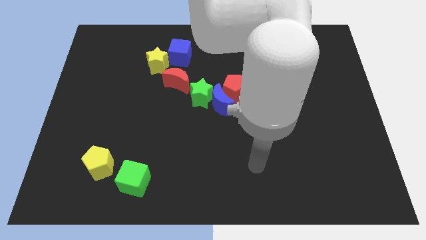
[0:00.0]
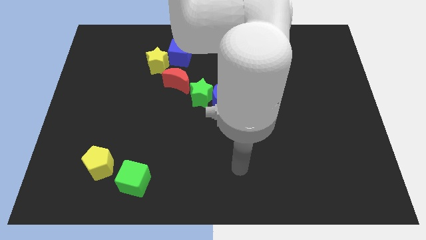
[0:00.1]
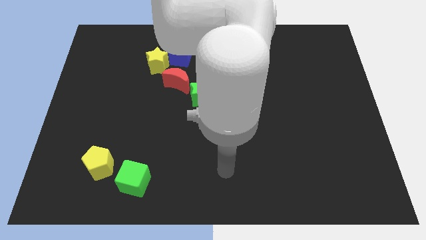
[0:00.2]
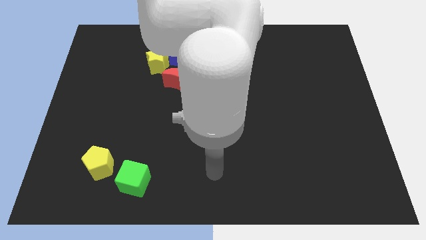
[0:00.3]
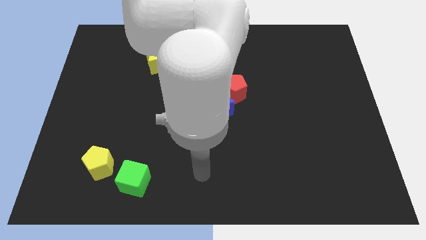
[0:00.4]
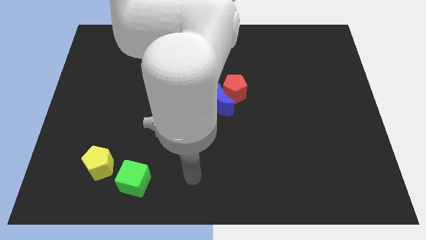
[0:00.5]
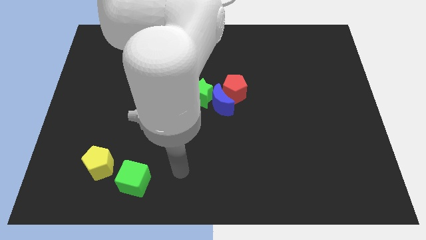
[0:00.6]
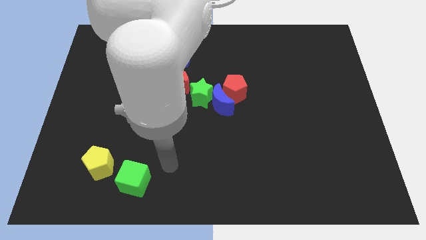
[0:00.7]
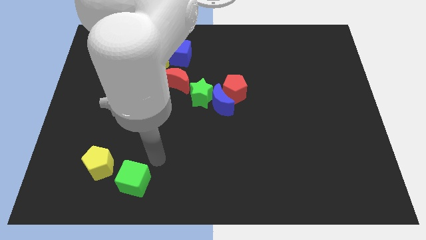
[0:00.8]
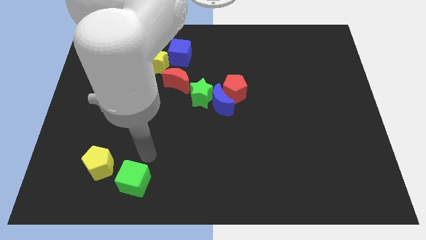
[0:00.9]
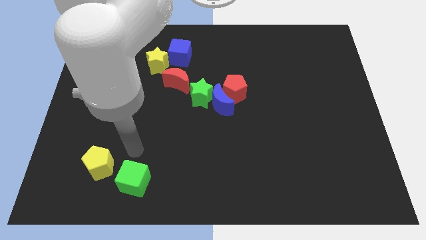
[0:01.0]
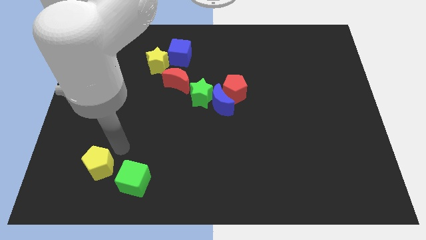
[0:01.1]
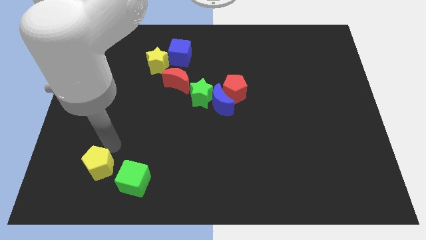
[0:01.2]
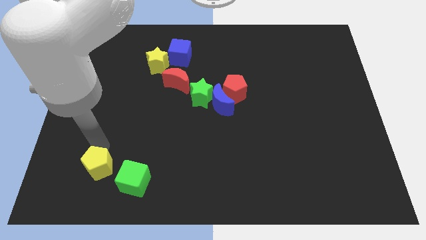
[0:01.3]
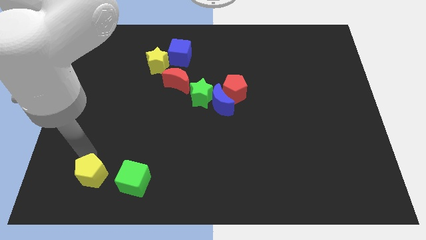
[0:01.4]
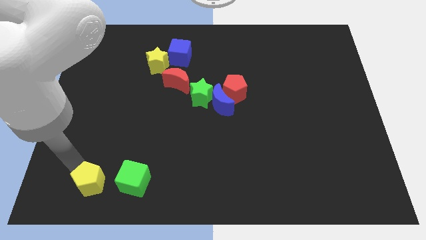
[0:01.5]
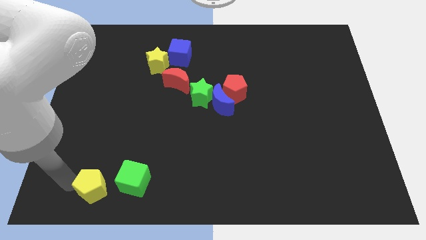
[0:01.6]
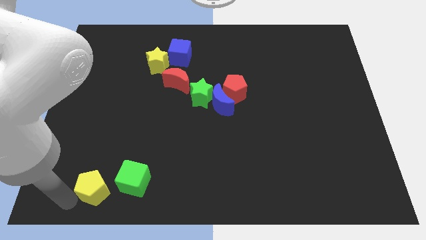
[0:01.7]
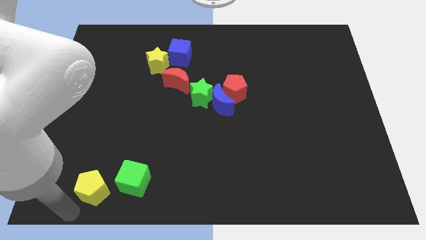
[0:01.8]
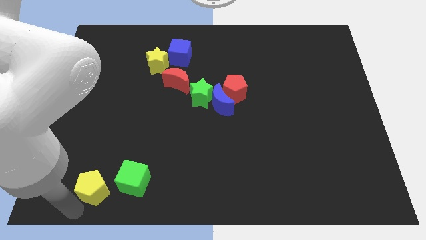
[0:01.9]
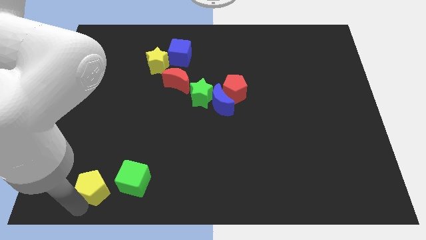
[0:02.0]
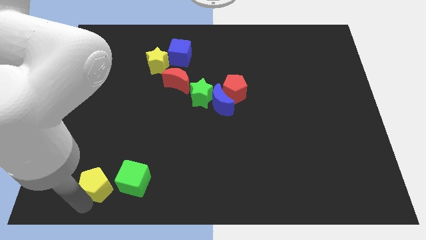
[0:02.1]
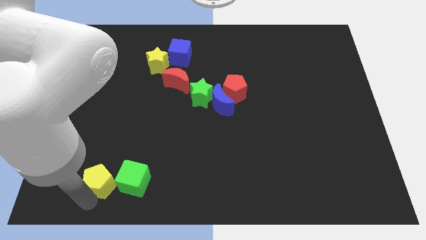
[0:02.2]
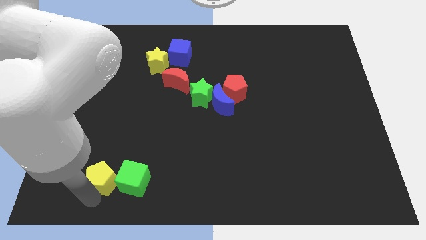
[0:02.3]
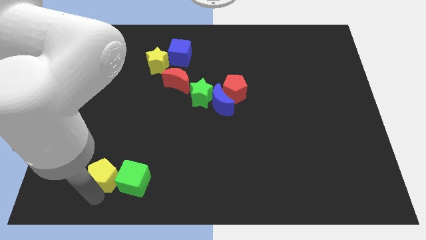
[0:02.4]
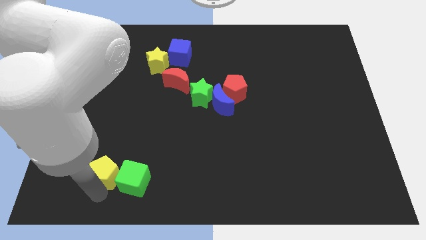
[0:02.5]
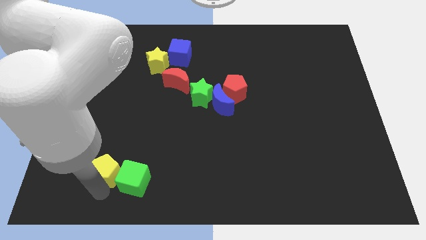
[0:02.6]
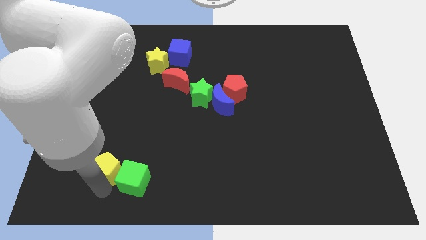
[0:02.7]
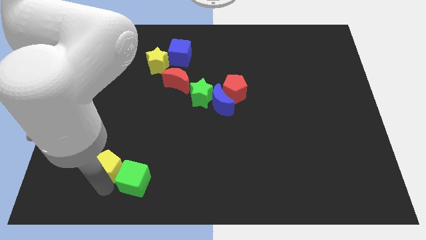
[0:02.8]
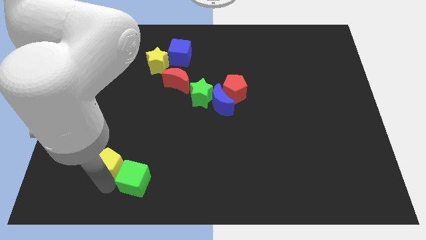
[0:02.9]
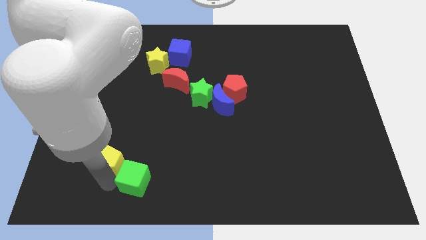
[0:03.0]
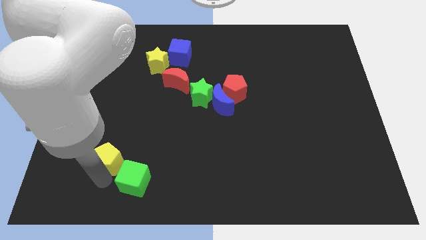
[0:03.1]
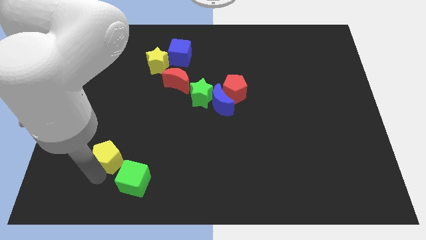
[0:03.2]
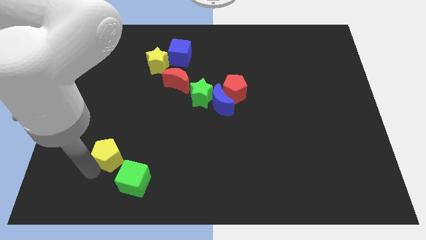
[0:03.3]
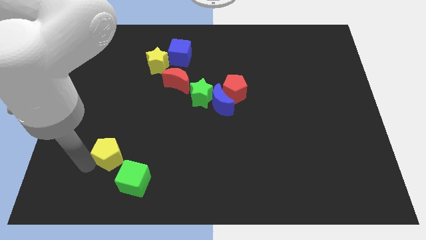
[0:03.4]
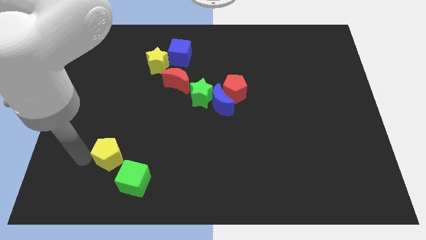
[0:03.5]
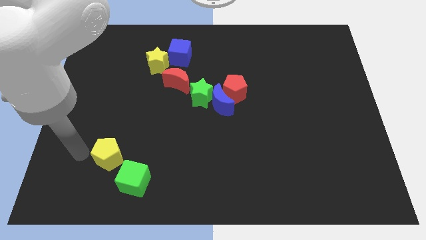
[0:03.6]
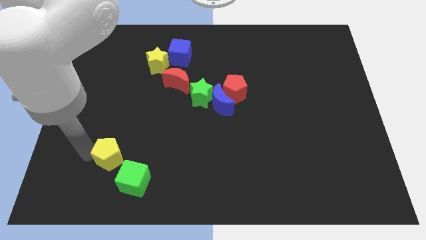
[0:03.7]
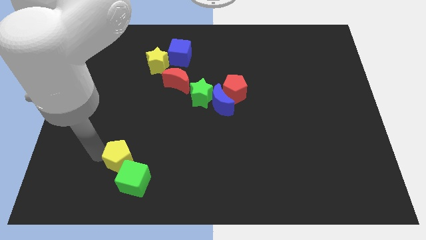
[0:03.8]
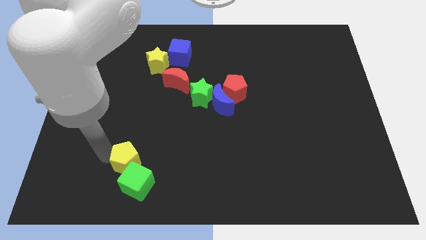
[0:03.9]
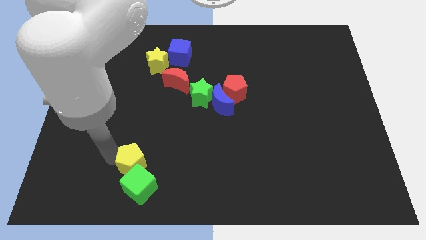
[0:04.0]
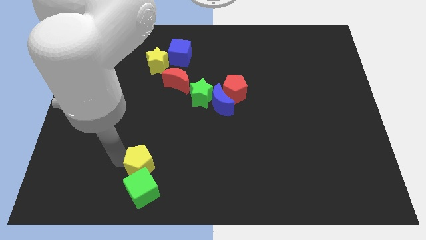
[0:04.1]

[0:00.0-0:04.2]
push the yellow pentagon right somewhat

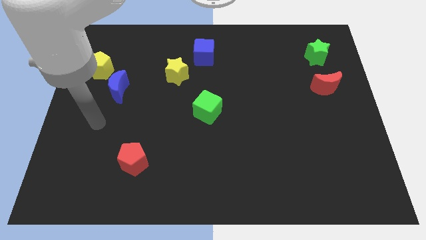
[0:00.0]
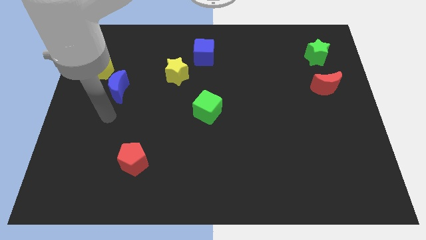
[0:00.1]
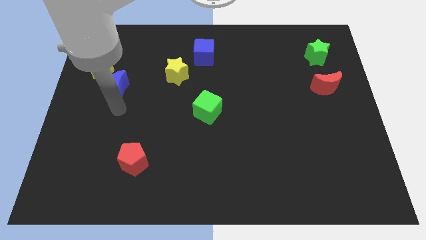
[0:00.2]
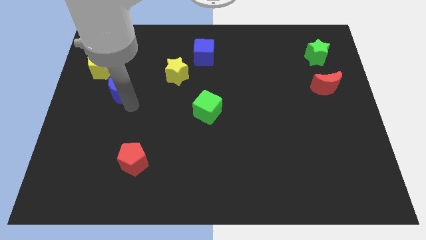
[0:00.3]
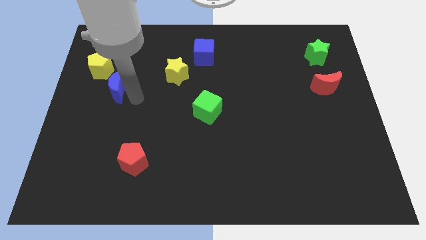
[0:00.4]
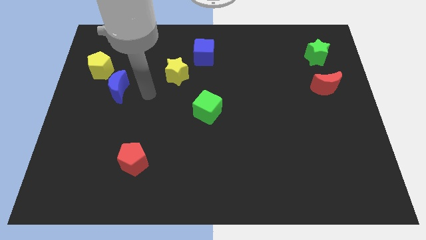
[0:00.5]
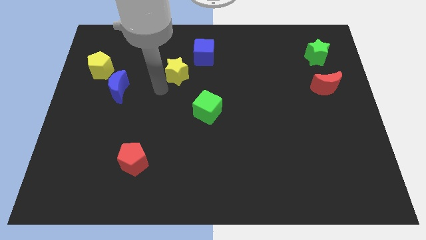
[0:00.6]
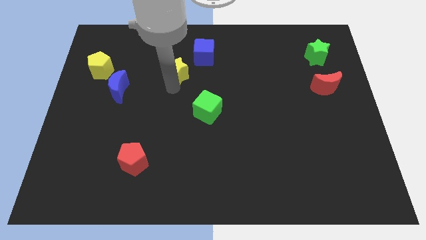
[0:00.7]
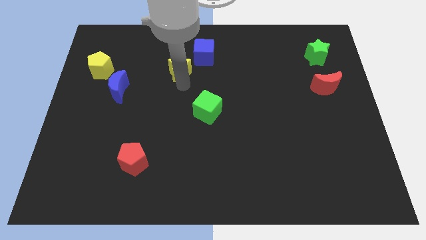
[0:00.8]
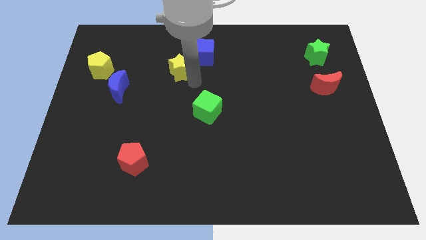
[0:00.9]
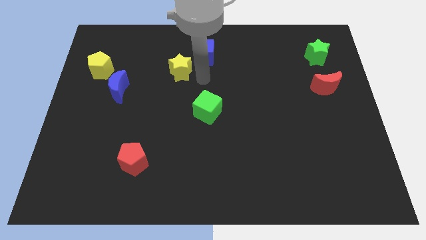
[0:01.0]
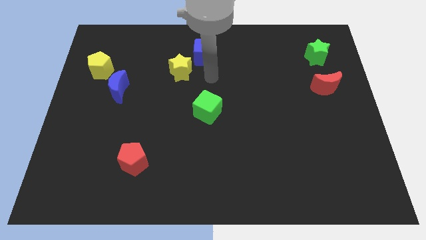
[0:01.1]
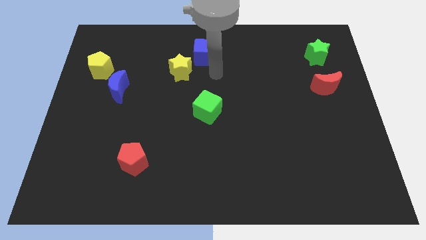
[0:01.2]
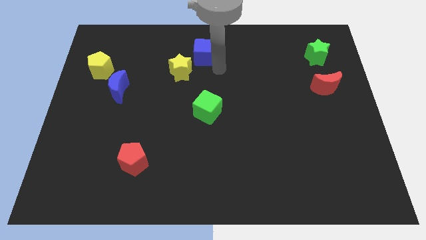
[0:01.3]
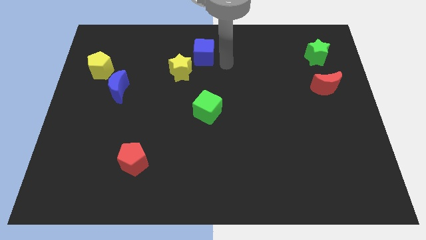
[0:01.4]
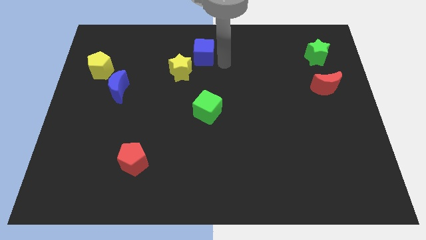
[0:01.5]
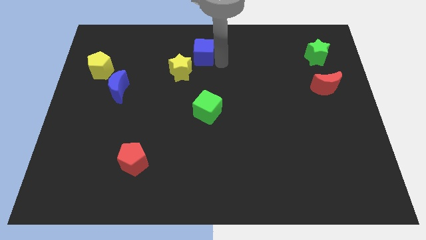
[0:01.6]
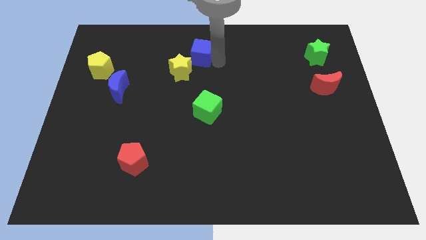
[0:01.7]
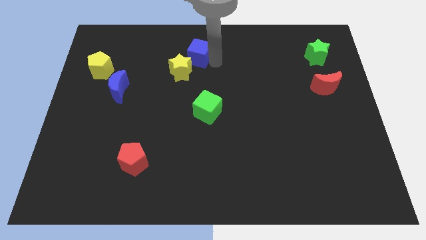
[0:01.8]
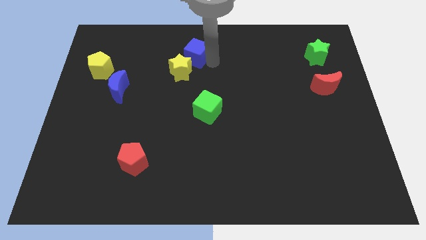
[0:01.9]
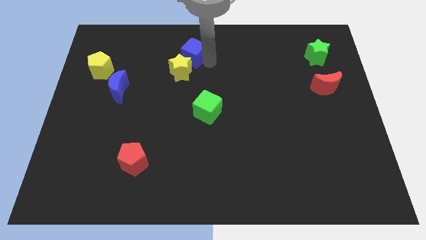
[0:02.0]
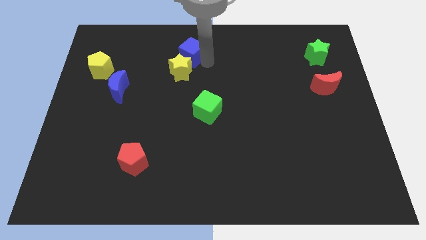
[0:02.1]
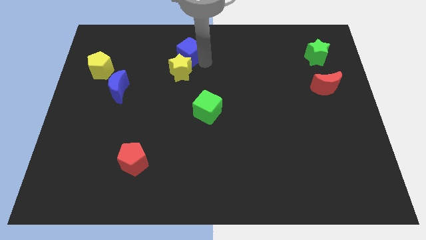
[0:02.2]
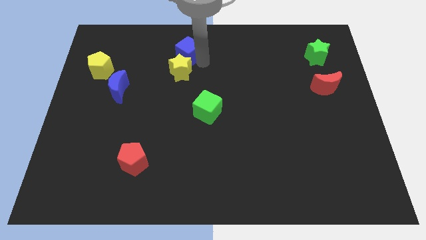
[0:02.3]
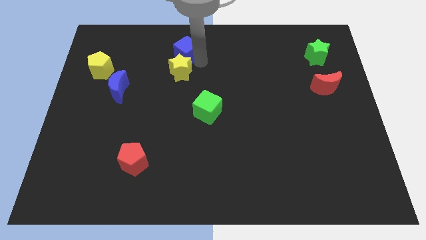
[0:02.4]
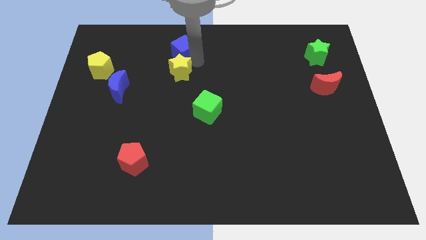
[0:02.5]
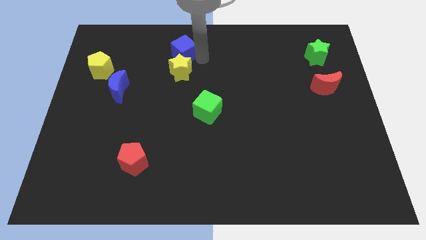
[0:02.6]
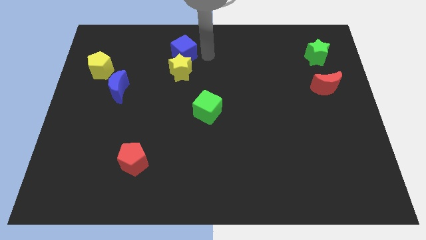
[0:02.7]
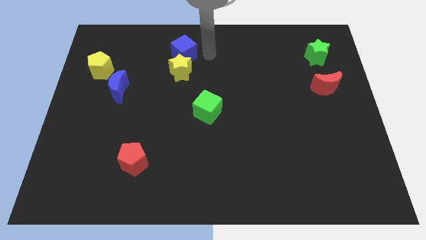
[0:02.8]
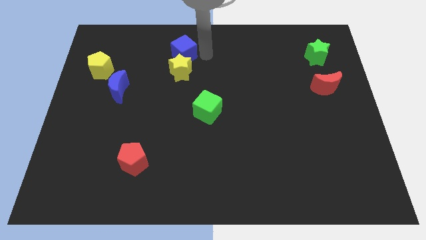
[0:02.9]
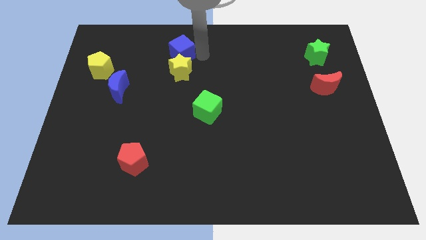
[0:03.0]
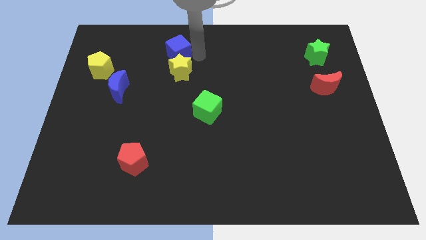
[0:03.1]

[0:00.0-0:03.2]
slightly slide the blue cube left

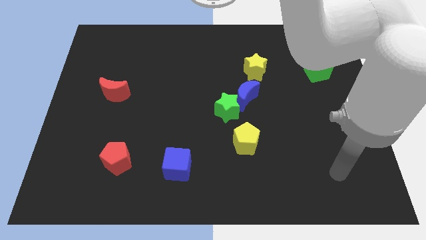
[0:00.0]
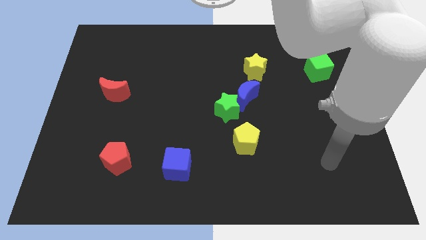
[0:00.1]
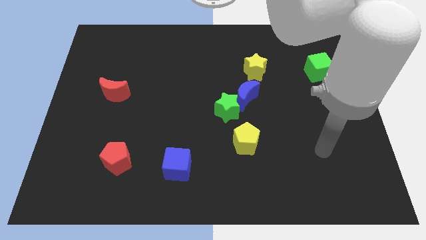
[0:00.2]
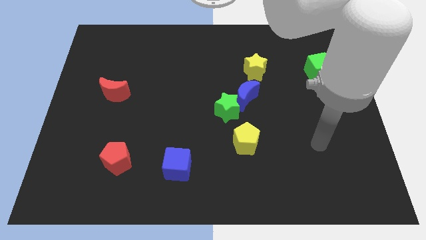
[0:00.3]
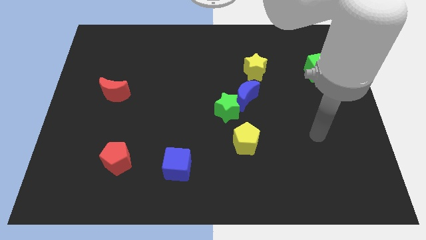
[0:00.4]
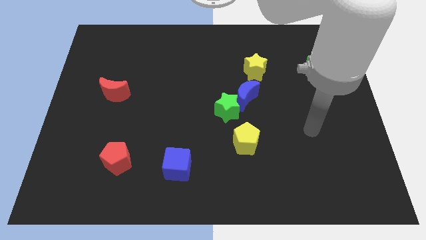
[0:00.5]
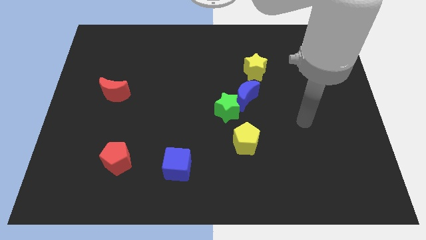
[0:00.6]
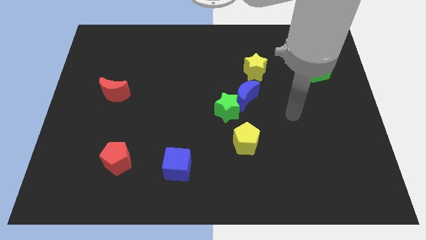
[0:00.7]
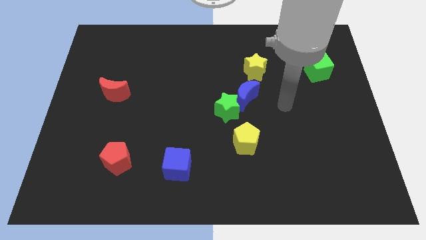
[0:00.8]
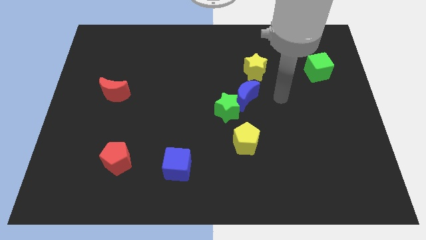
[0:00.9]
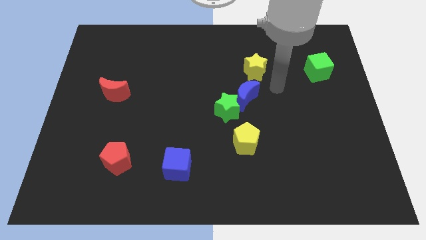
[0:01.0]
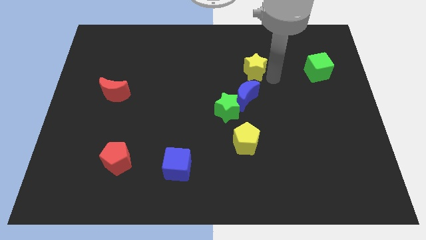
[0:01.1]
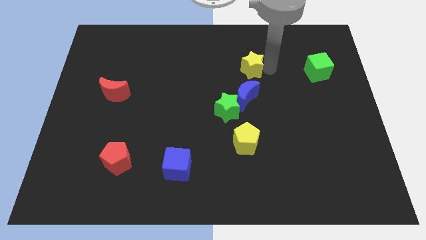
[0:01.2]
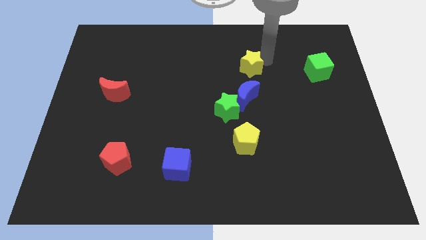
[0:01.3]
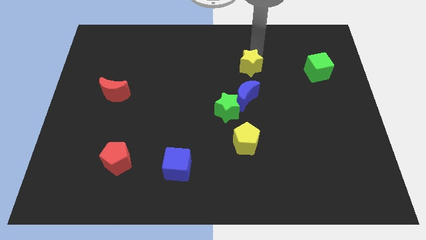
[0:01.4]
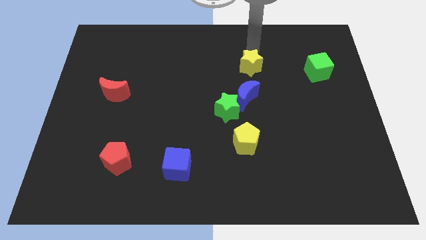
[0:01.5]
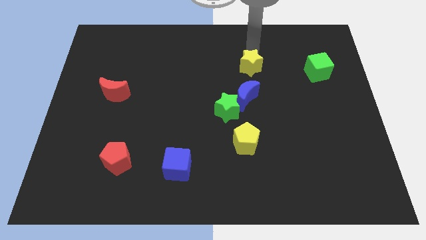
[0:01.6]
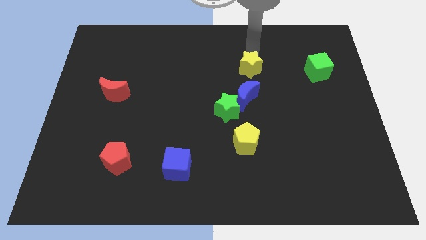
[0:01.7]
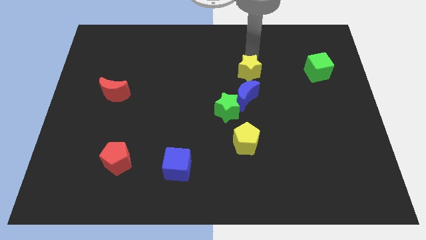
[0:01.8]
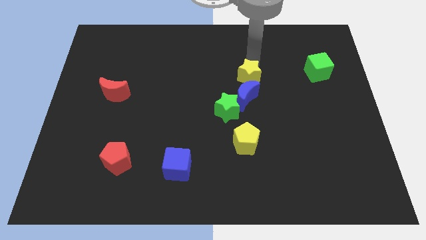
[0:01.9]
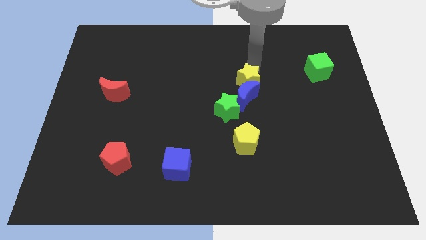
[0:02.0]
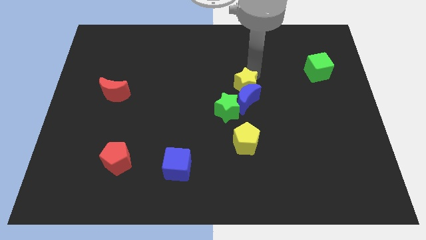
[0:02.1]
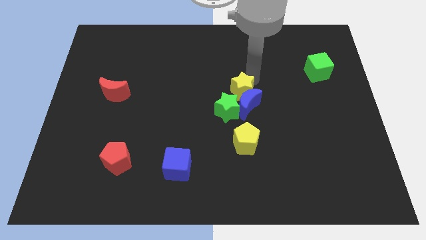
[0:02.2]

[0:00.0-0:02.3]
slide the yellow star a bit down and to the left
